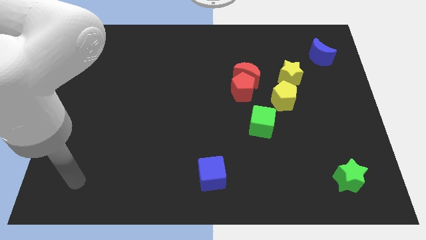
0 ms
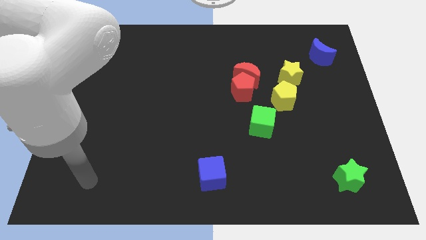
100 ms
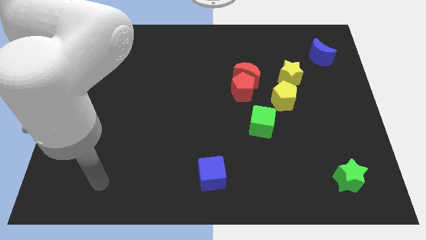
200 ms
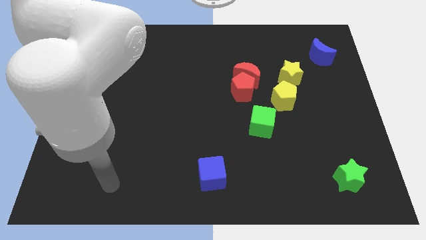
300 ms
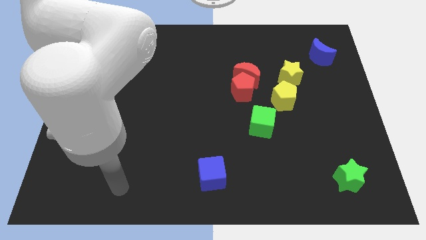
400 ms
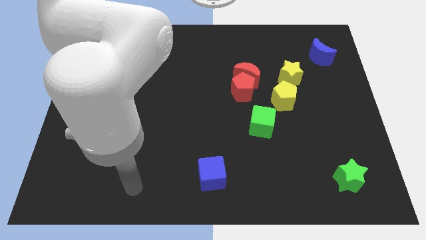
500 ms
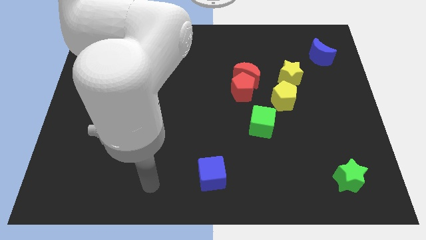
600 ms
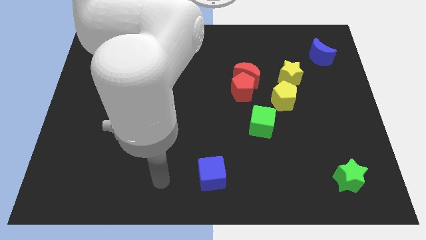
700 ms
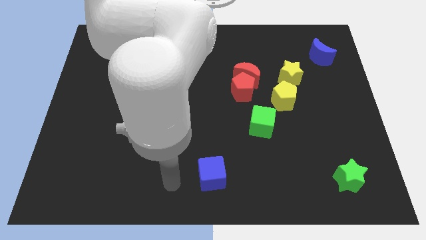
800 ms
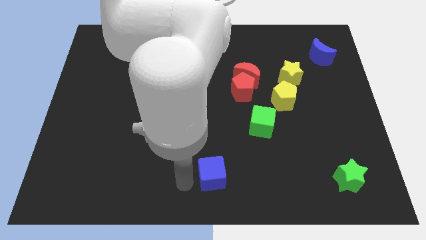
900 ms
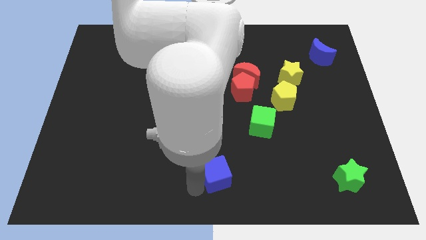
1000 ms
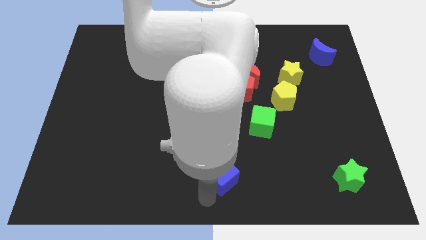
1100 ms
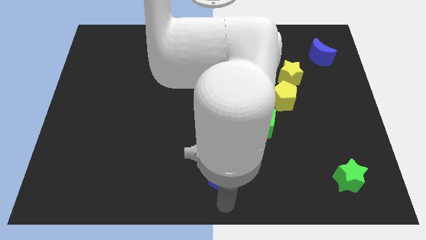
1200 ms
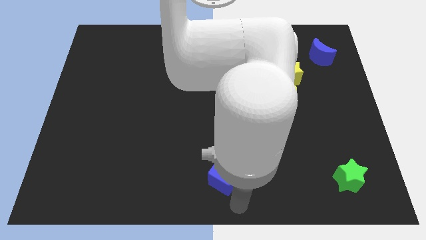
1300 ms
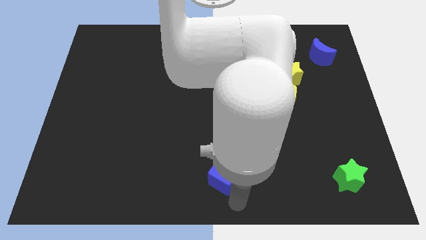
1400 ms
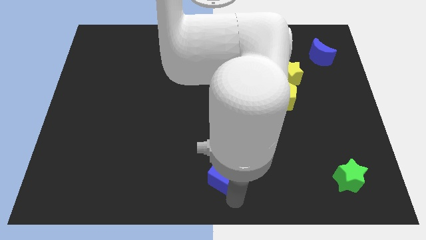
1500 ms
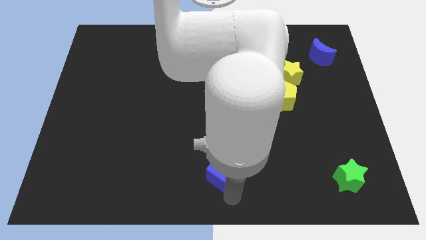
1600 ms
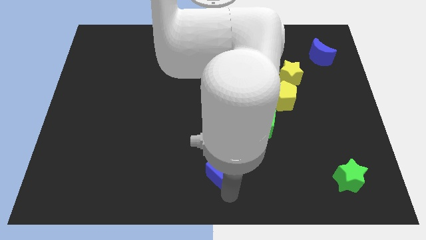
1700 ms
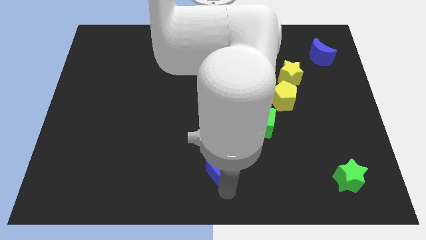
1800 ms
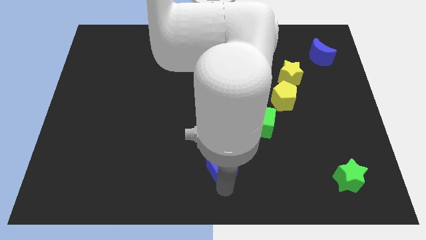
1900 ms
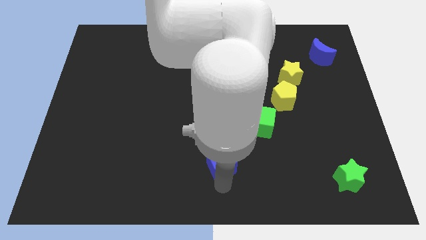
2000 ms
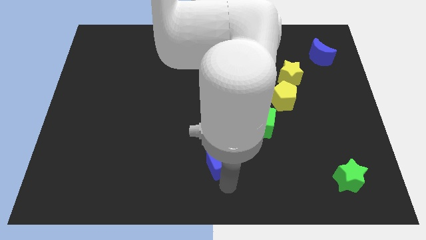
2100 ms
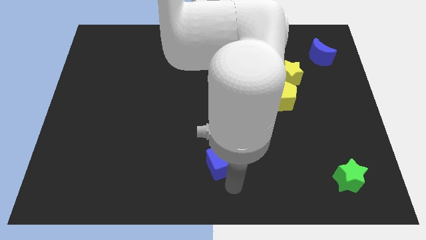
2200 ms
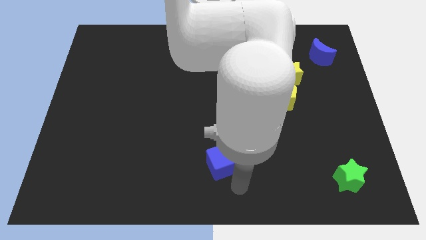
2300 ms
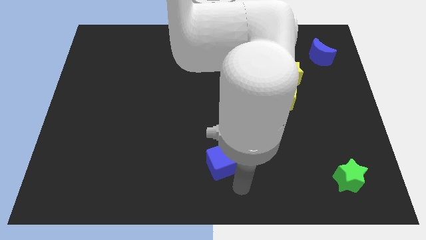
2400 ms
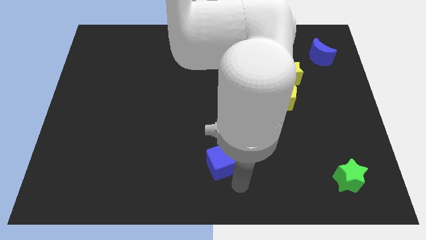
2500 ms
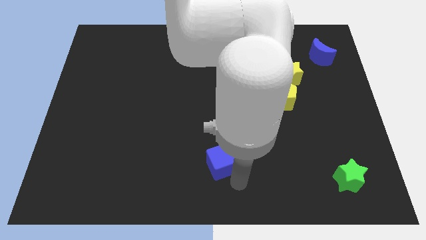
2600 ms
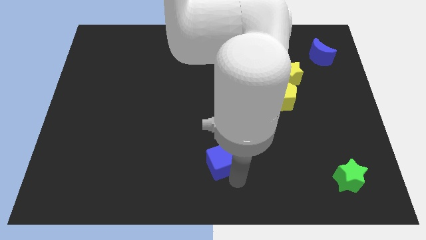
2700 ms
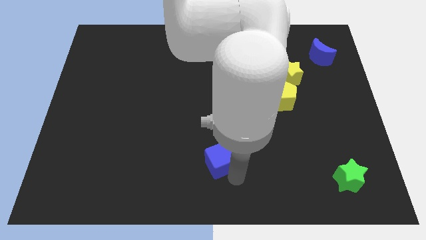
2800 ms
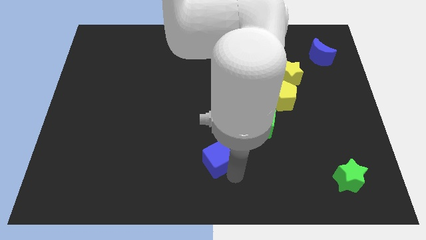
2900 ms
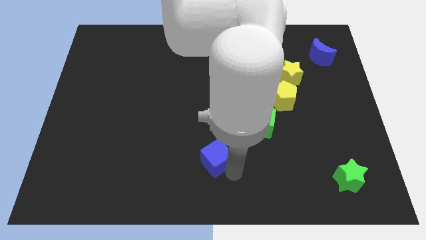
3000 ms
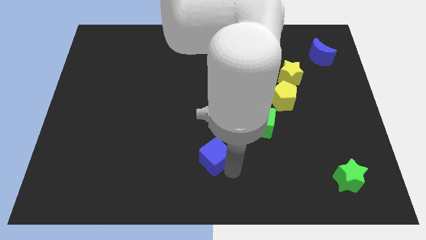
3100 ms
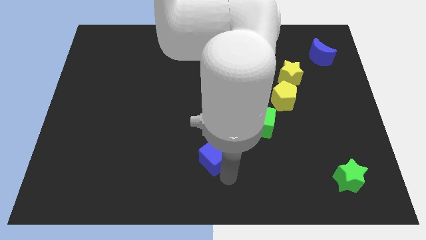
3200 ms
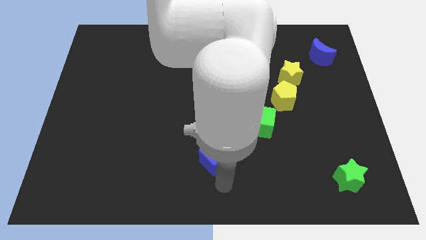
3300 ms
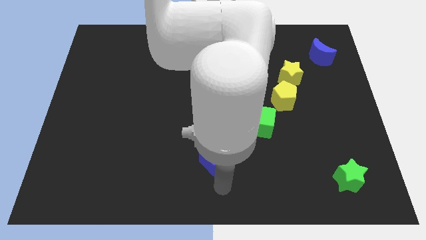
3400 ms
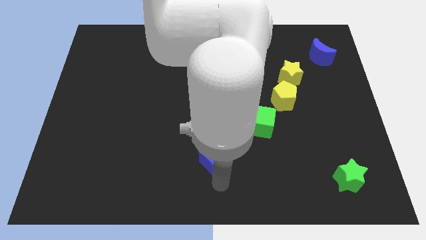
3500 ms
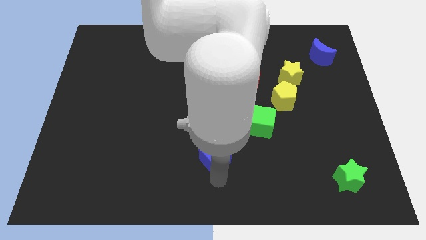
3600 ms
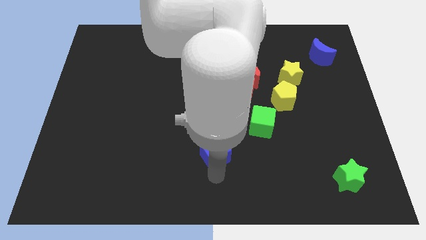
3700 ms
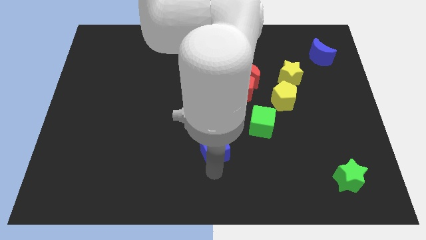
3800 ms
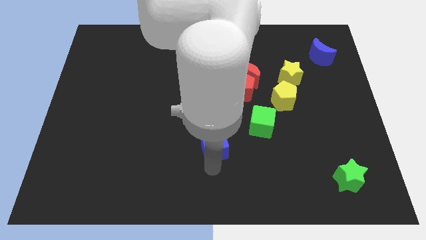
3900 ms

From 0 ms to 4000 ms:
slide the blue cube slightly upwards

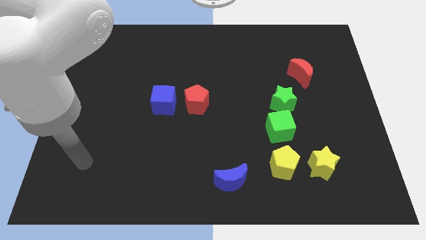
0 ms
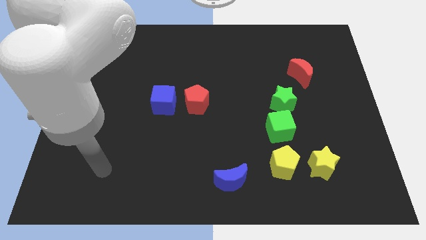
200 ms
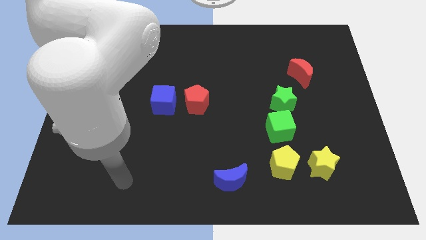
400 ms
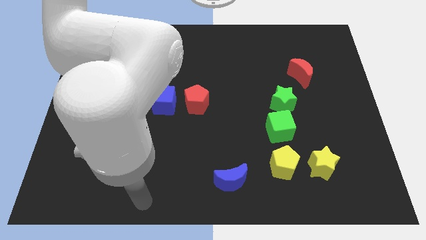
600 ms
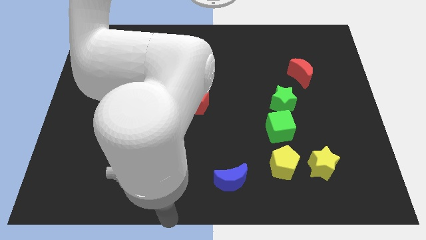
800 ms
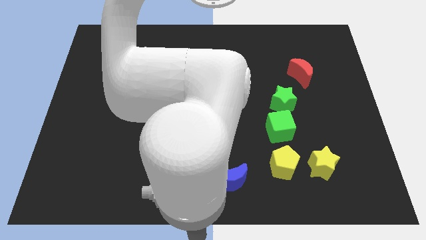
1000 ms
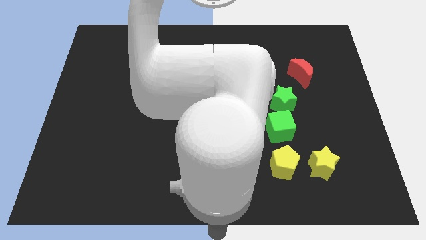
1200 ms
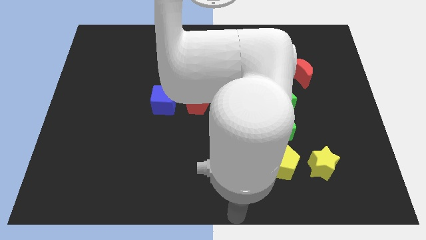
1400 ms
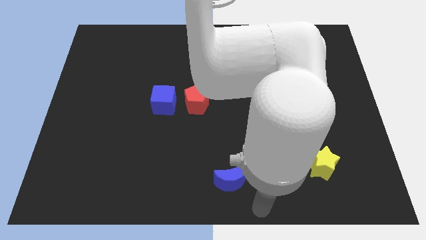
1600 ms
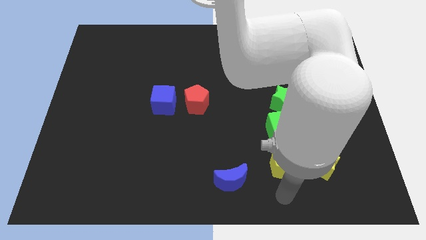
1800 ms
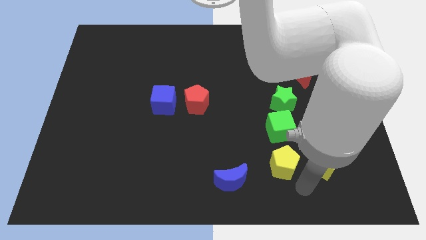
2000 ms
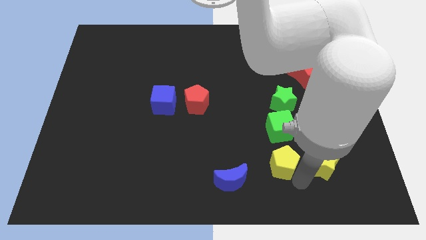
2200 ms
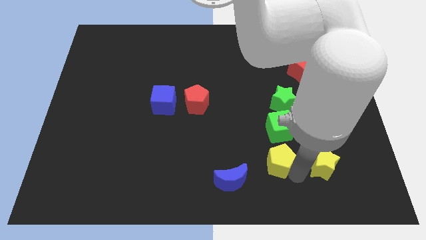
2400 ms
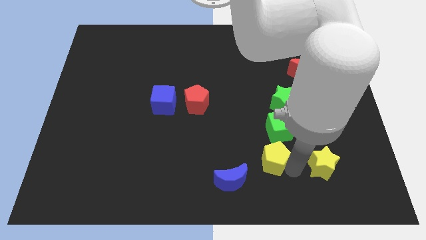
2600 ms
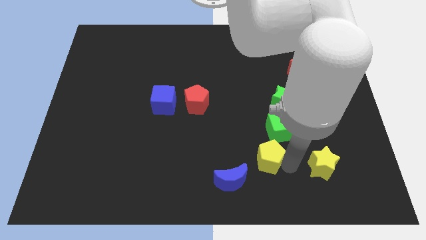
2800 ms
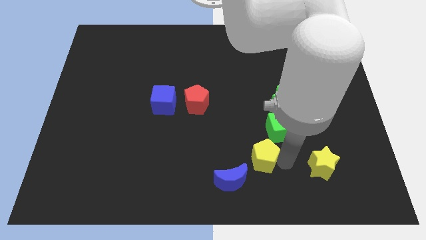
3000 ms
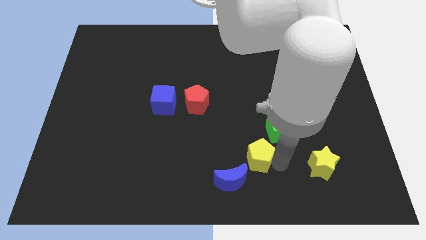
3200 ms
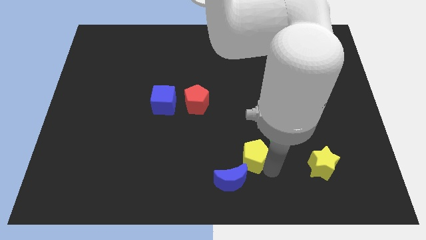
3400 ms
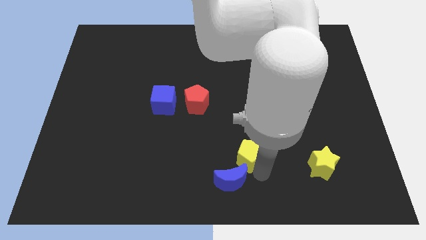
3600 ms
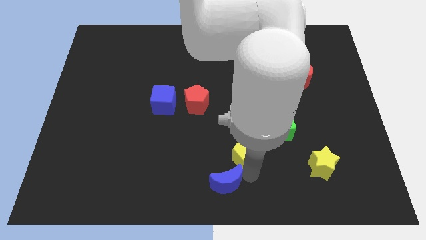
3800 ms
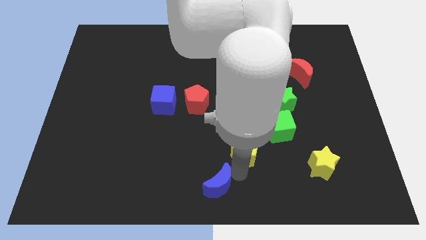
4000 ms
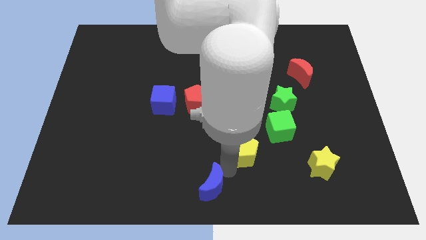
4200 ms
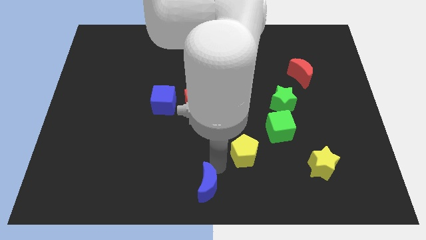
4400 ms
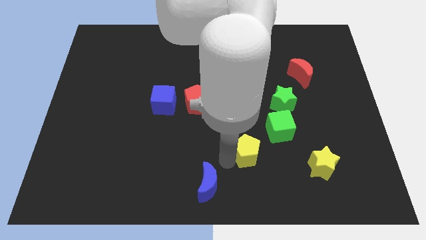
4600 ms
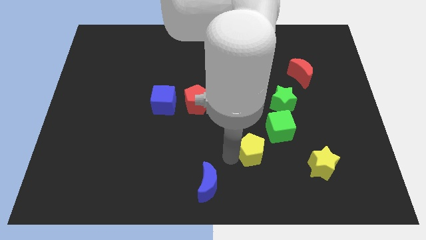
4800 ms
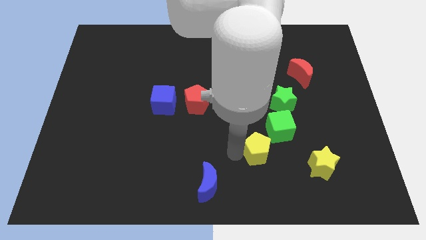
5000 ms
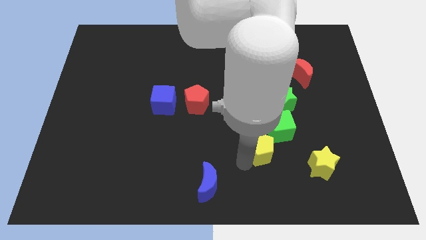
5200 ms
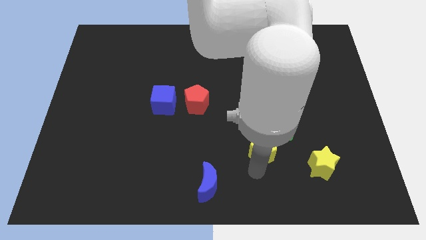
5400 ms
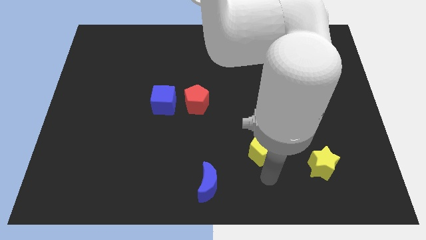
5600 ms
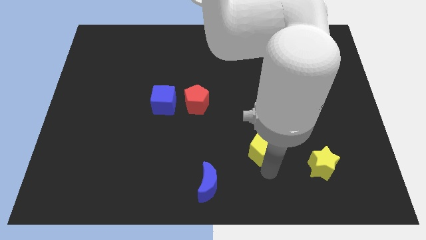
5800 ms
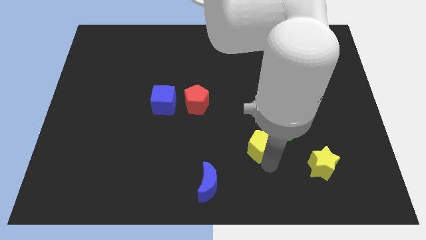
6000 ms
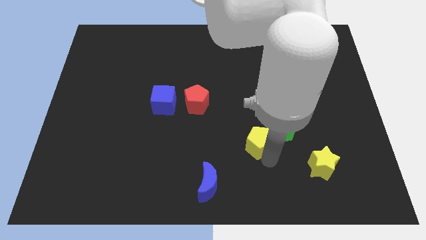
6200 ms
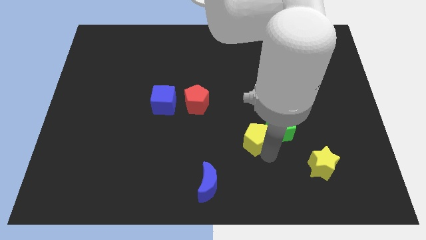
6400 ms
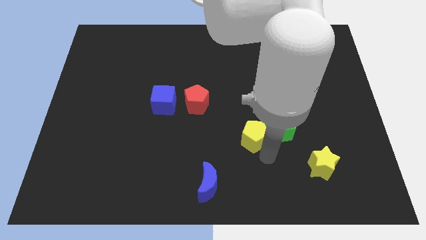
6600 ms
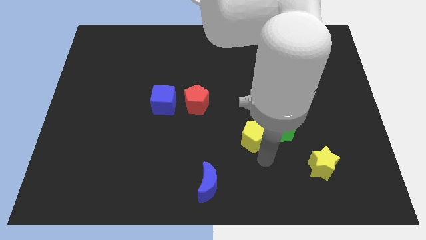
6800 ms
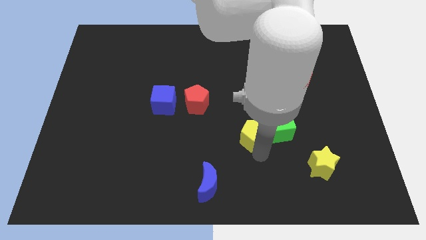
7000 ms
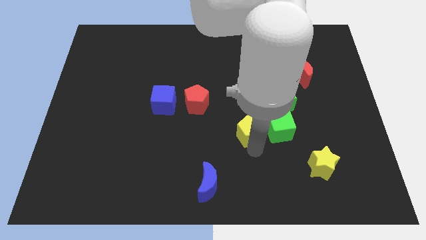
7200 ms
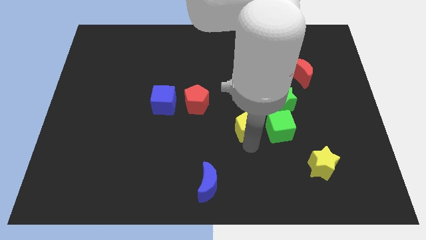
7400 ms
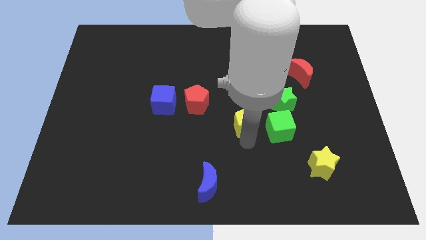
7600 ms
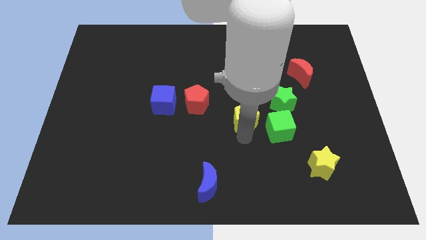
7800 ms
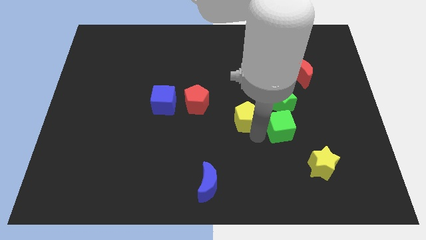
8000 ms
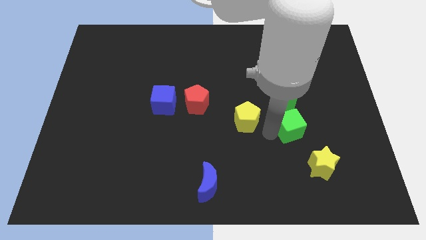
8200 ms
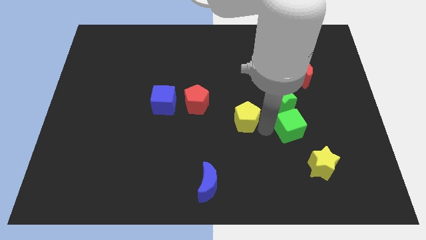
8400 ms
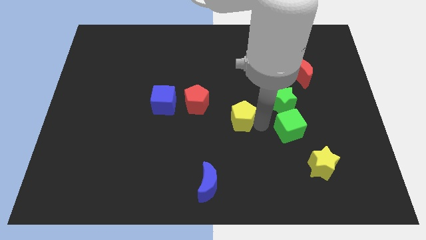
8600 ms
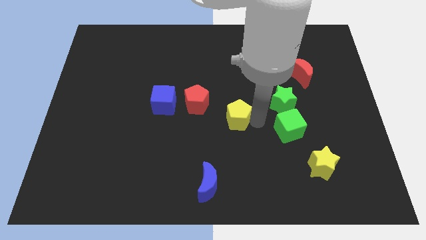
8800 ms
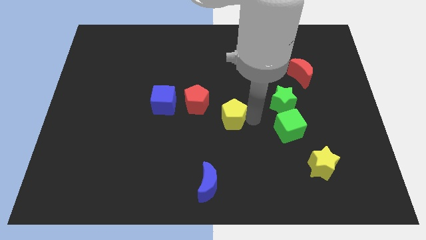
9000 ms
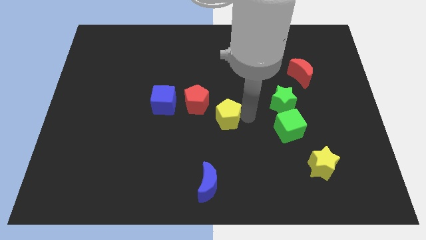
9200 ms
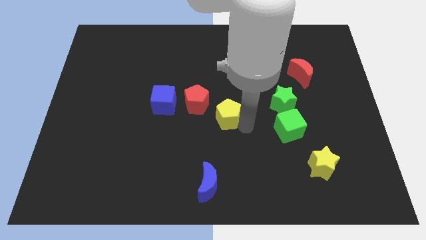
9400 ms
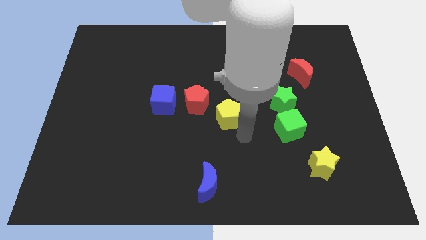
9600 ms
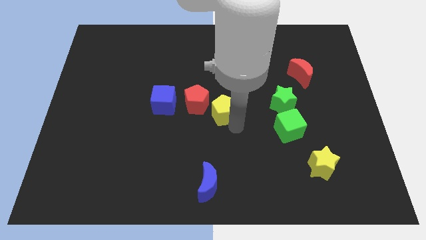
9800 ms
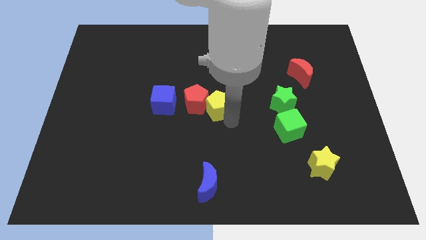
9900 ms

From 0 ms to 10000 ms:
push the yellow pentagon upwards and then to the left
